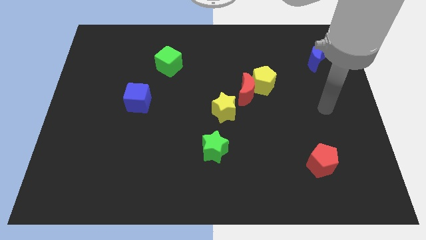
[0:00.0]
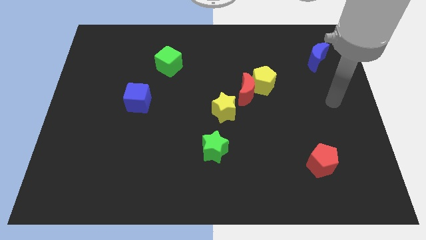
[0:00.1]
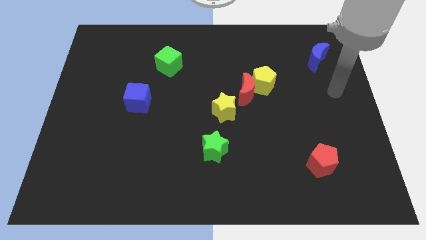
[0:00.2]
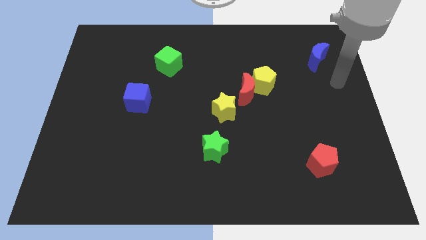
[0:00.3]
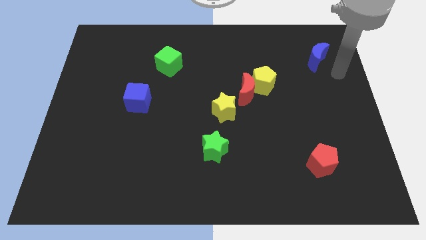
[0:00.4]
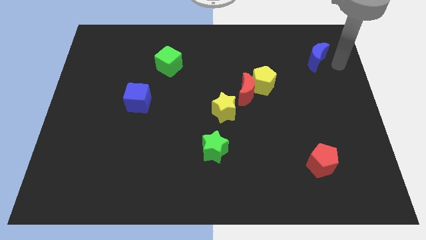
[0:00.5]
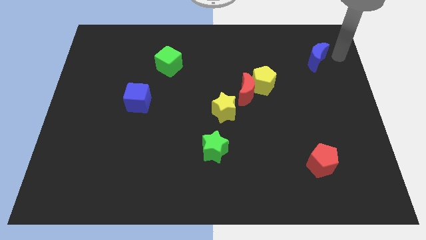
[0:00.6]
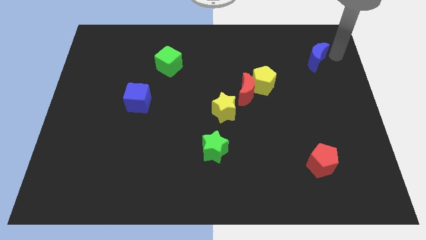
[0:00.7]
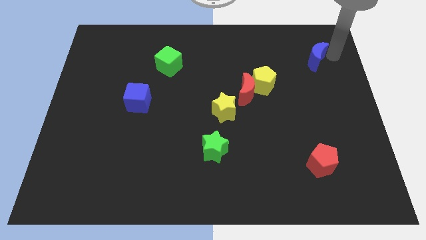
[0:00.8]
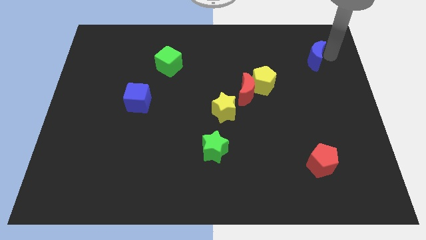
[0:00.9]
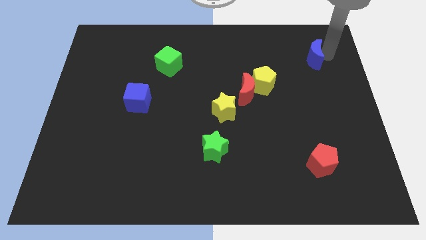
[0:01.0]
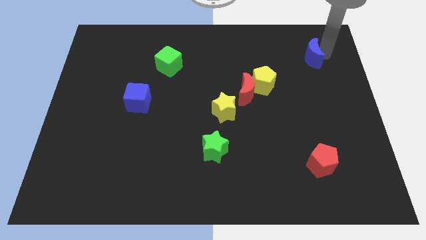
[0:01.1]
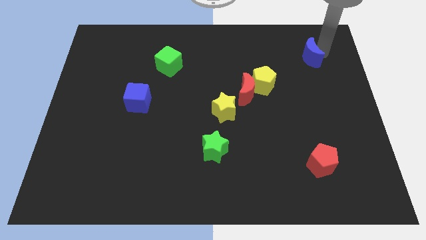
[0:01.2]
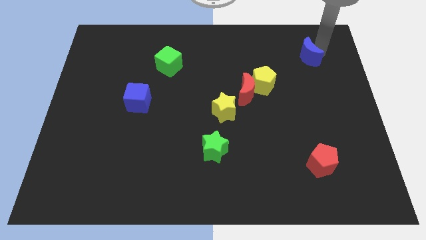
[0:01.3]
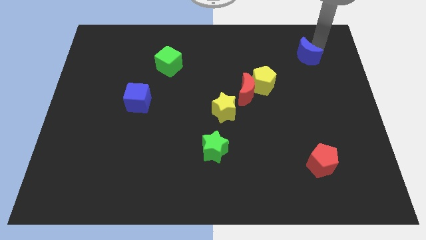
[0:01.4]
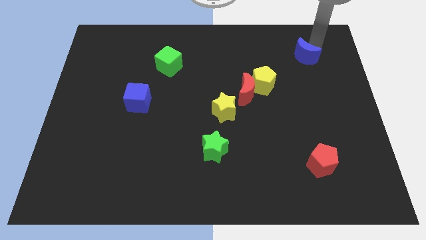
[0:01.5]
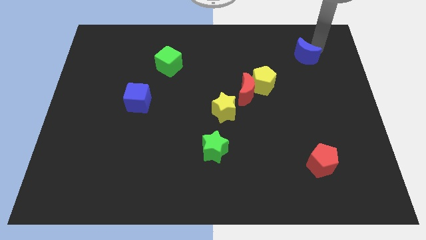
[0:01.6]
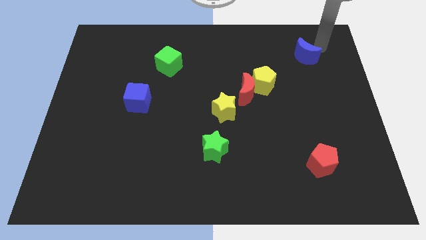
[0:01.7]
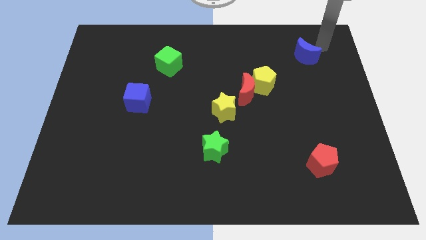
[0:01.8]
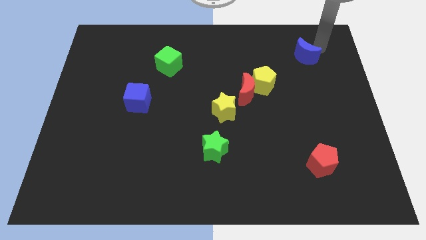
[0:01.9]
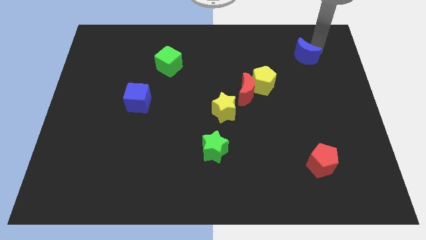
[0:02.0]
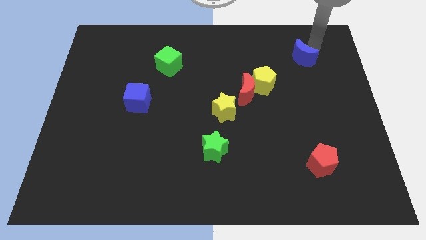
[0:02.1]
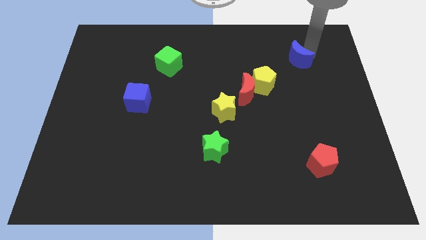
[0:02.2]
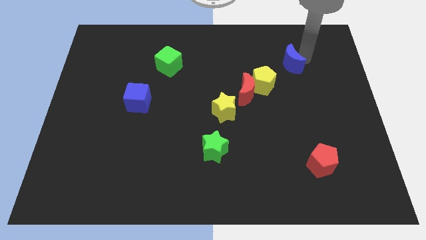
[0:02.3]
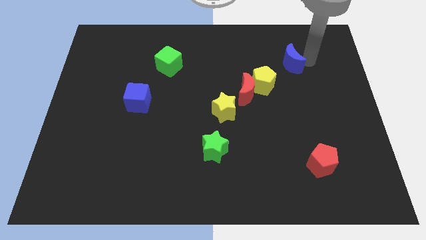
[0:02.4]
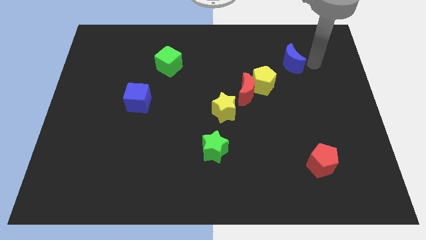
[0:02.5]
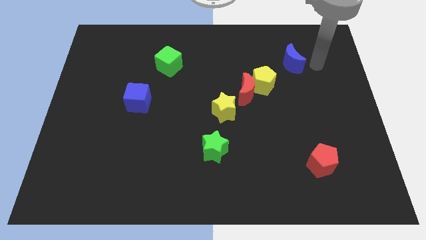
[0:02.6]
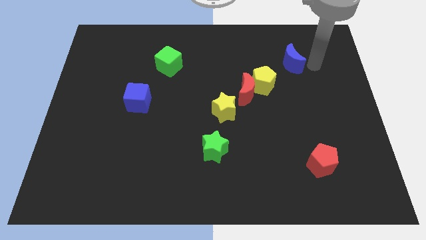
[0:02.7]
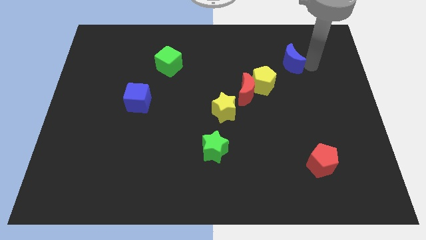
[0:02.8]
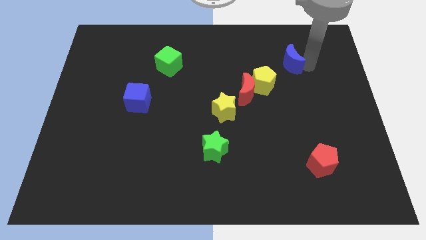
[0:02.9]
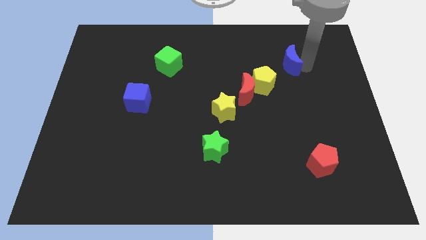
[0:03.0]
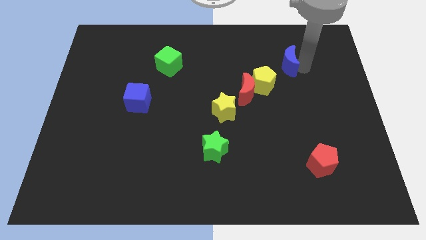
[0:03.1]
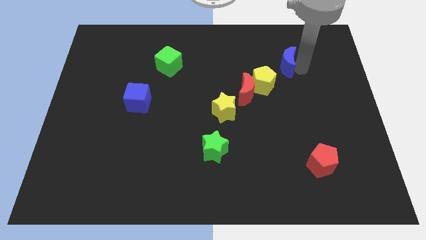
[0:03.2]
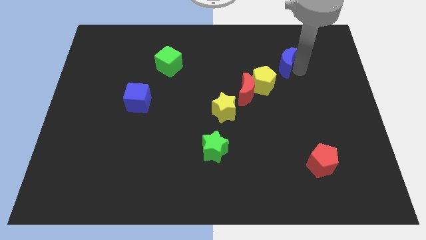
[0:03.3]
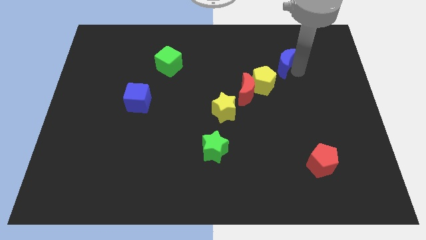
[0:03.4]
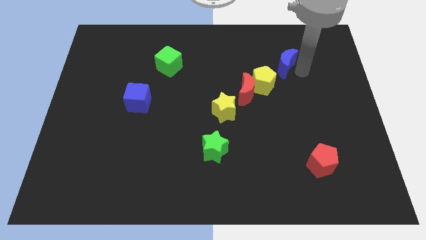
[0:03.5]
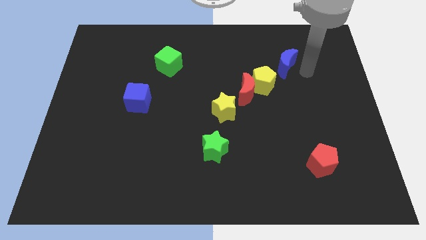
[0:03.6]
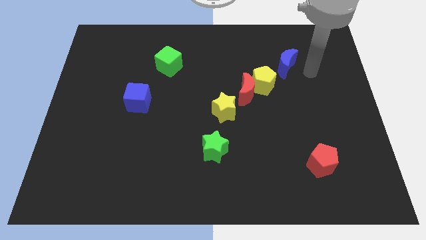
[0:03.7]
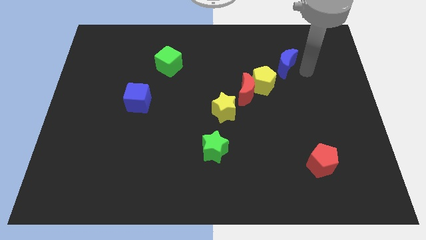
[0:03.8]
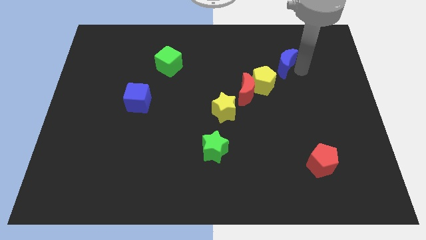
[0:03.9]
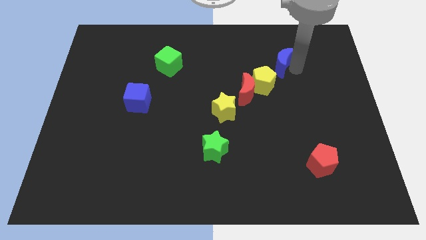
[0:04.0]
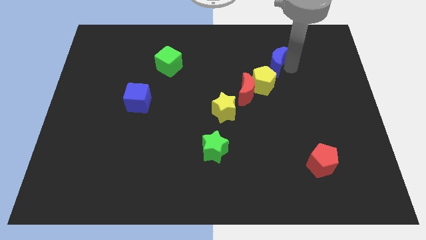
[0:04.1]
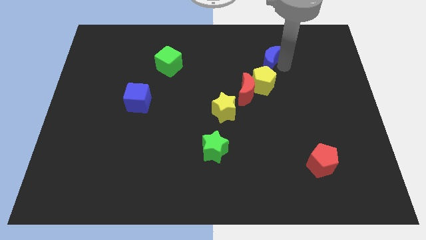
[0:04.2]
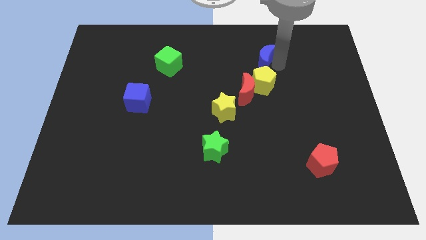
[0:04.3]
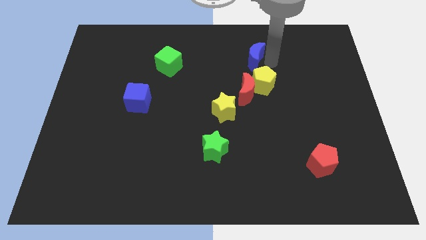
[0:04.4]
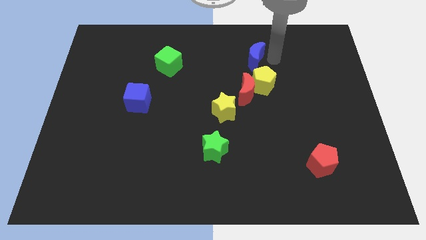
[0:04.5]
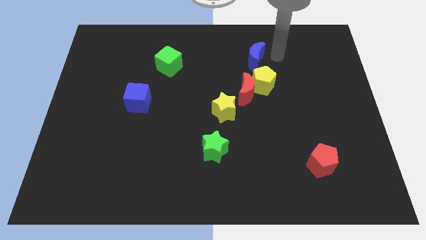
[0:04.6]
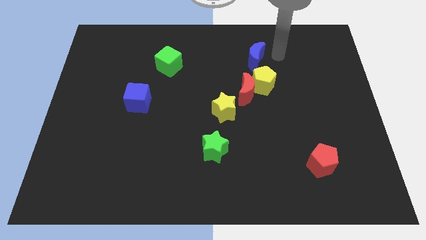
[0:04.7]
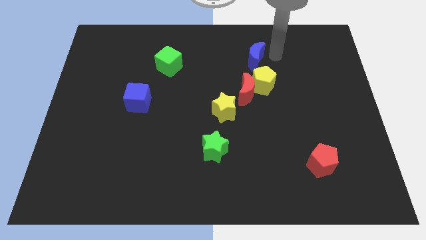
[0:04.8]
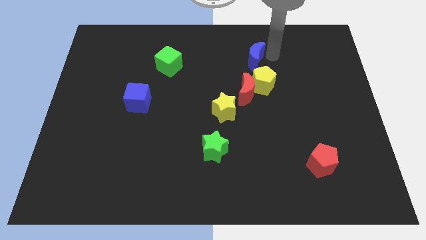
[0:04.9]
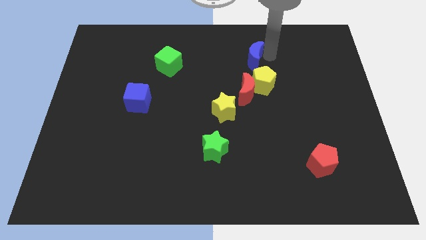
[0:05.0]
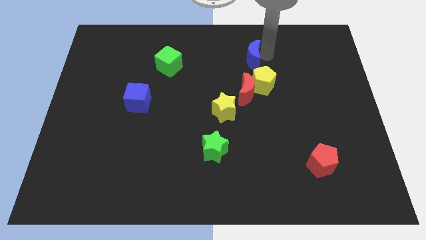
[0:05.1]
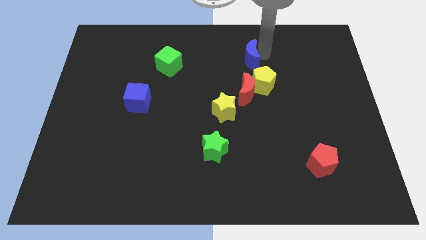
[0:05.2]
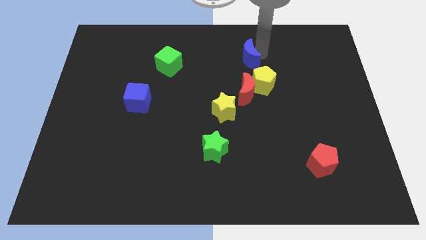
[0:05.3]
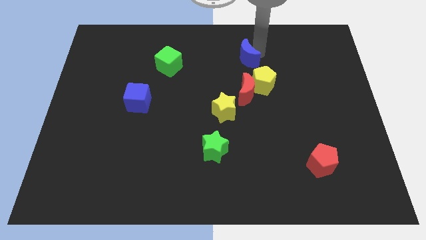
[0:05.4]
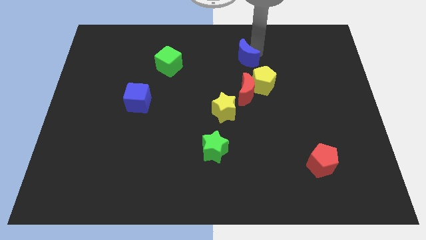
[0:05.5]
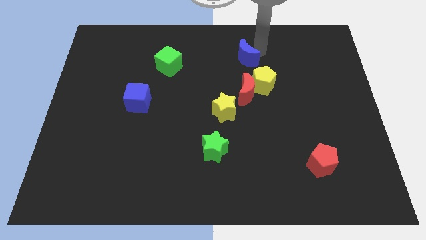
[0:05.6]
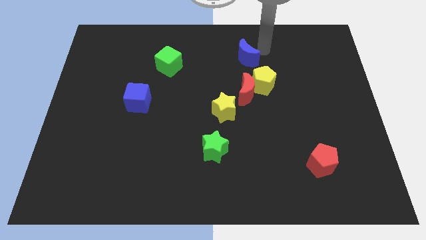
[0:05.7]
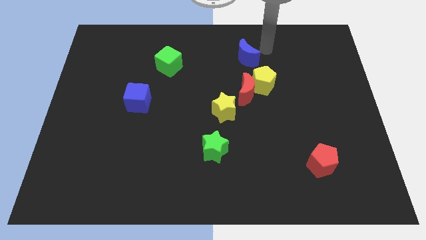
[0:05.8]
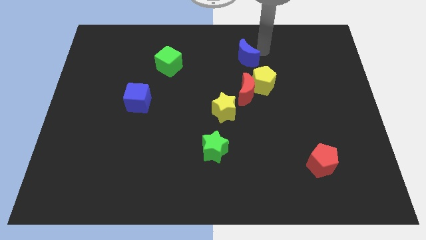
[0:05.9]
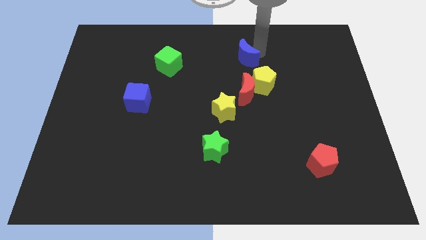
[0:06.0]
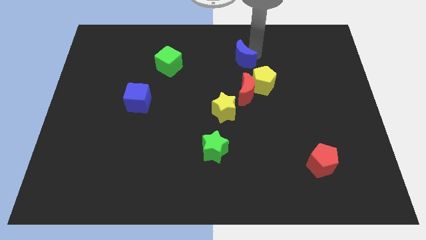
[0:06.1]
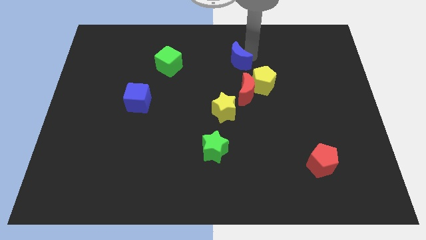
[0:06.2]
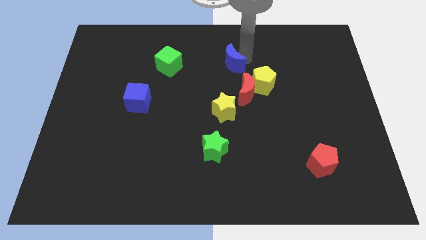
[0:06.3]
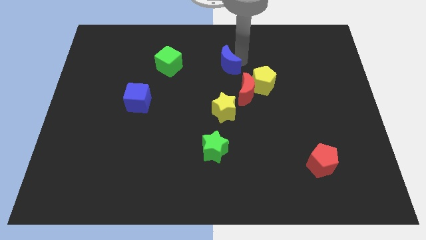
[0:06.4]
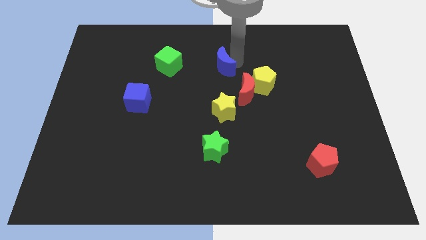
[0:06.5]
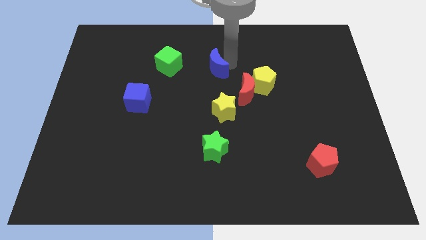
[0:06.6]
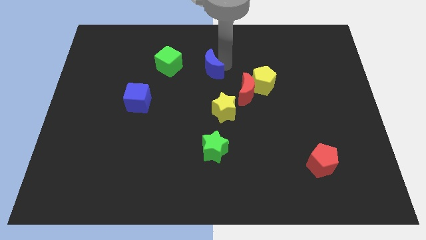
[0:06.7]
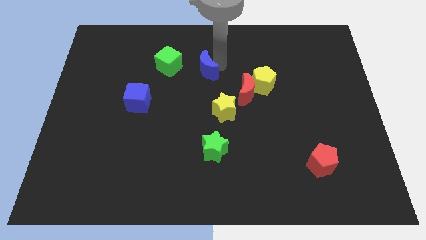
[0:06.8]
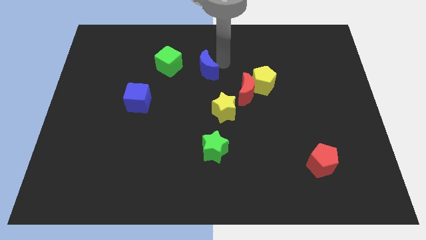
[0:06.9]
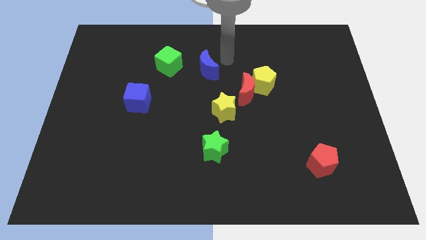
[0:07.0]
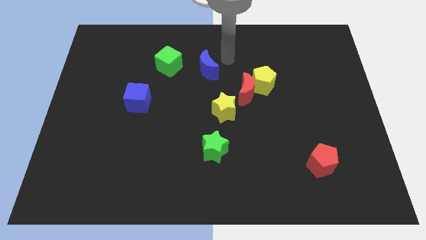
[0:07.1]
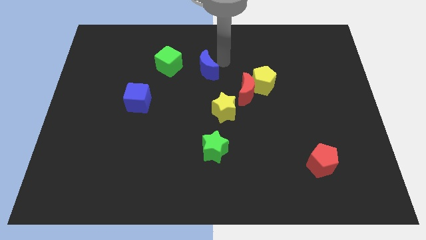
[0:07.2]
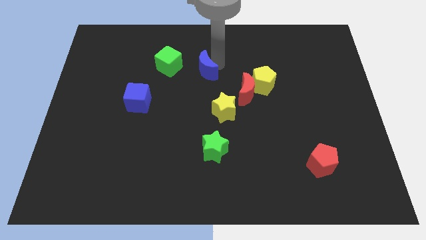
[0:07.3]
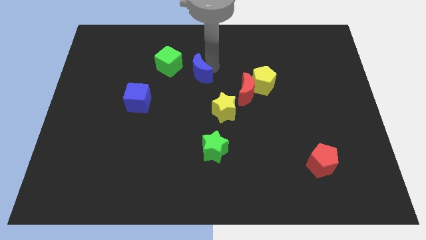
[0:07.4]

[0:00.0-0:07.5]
move the blue moon to the bottom right of the green cube

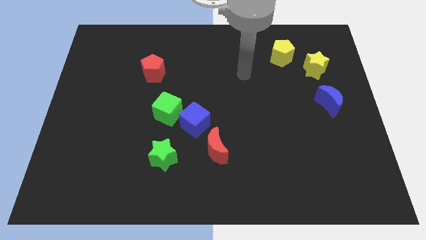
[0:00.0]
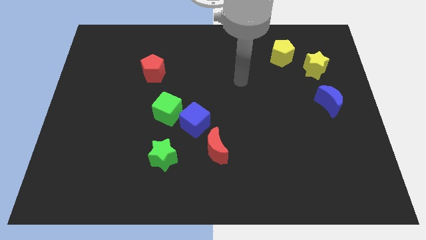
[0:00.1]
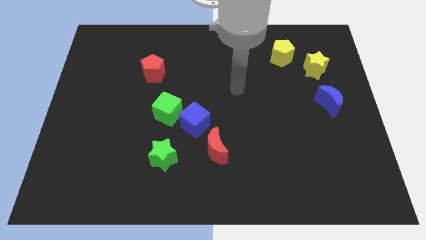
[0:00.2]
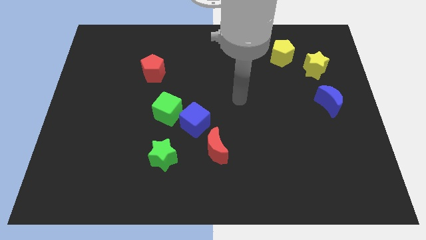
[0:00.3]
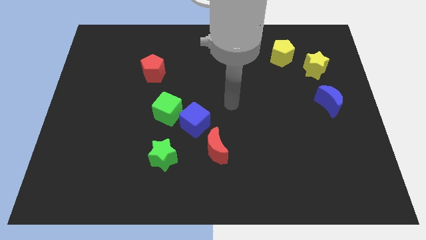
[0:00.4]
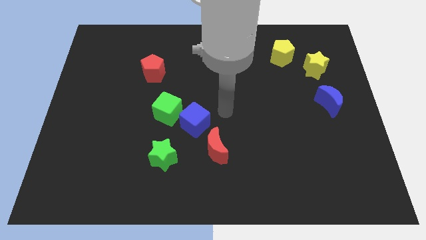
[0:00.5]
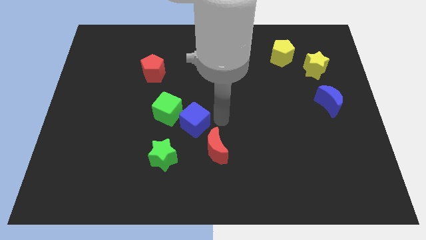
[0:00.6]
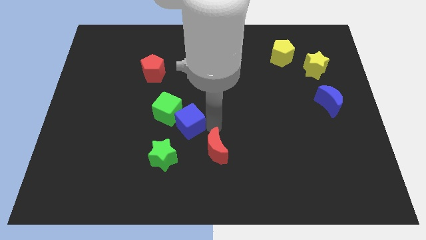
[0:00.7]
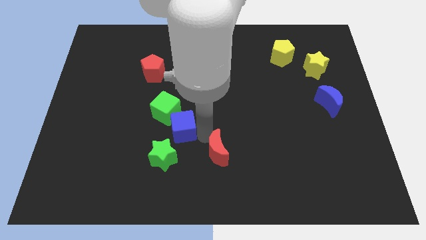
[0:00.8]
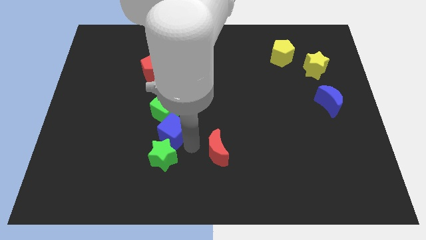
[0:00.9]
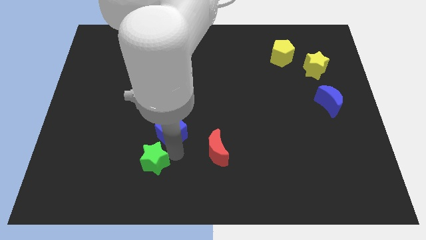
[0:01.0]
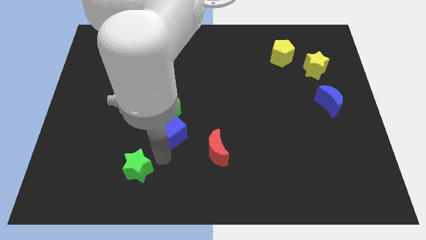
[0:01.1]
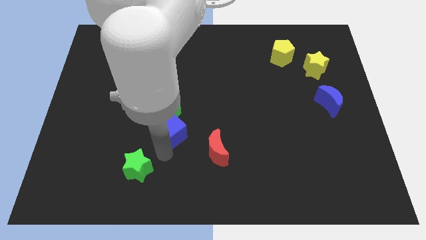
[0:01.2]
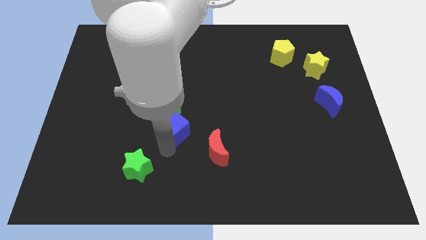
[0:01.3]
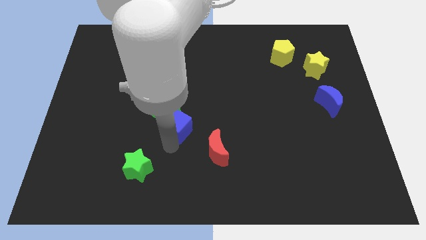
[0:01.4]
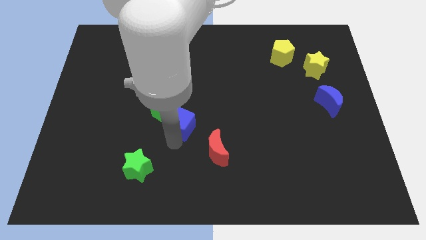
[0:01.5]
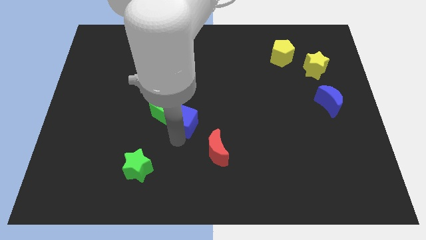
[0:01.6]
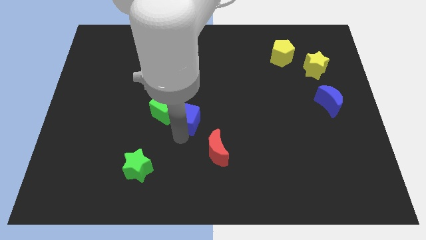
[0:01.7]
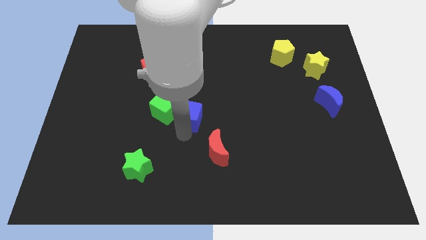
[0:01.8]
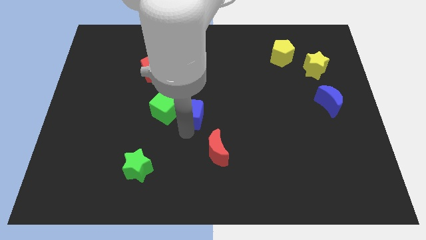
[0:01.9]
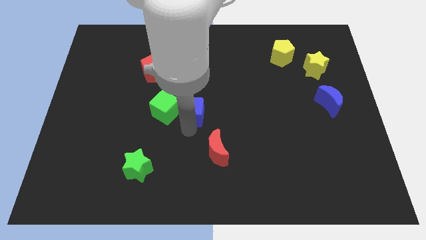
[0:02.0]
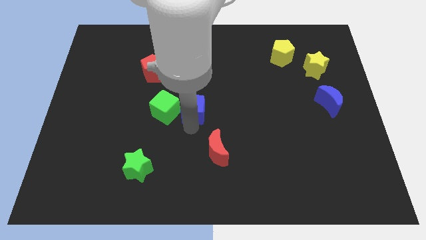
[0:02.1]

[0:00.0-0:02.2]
push the blue cube to the top right side of the green cube
